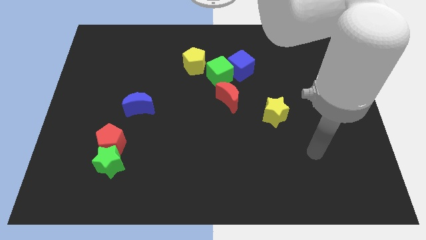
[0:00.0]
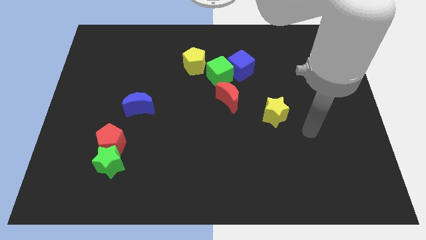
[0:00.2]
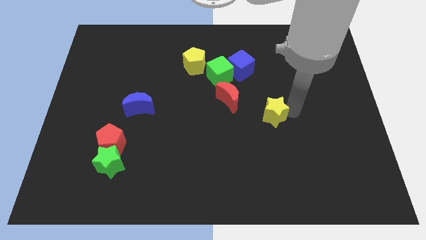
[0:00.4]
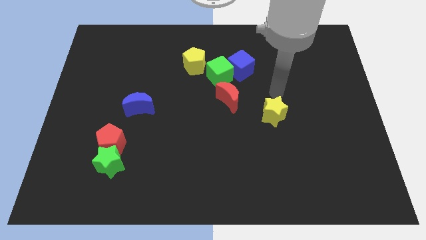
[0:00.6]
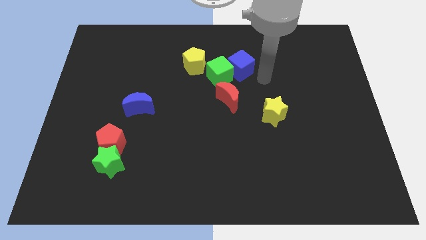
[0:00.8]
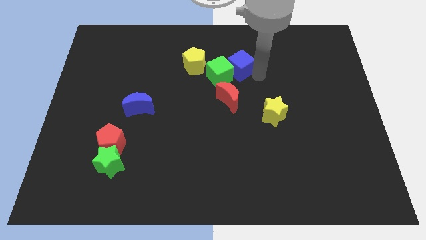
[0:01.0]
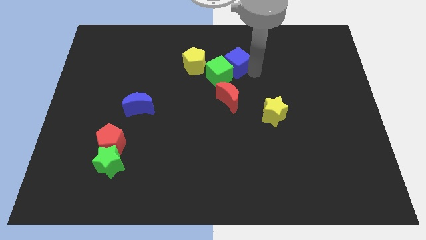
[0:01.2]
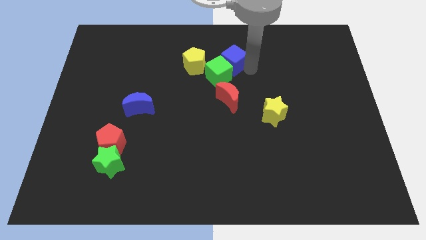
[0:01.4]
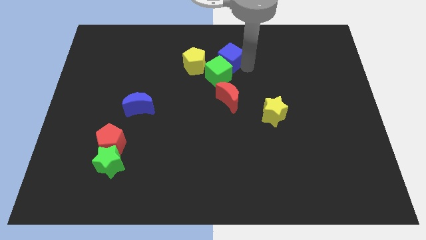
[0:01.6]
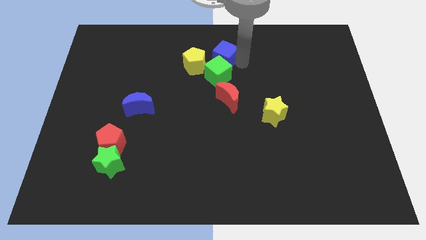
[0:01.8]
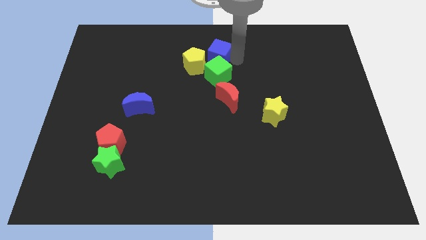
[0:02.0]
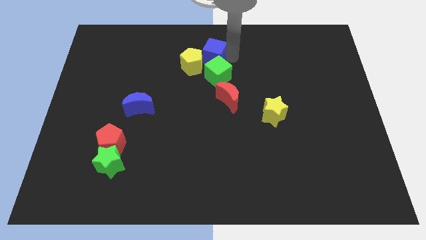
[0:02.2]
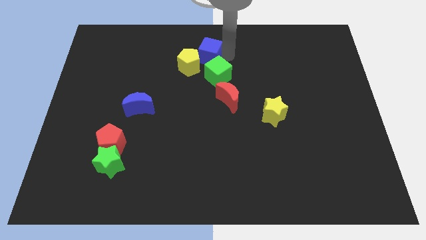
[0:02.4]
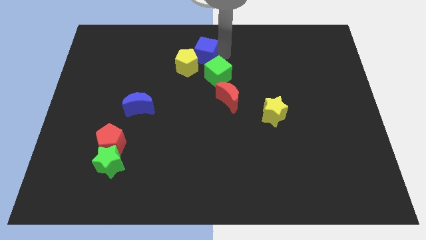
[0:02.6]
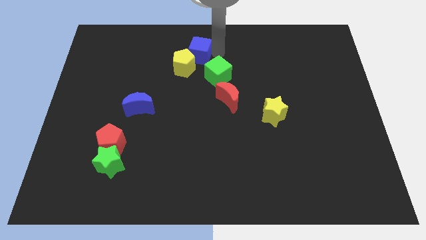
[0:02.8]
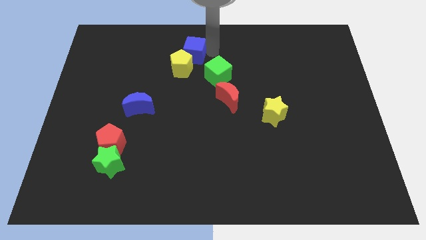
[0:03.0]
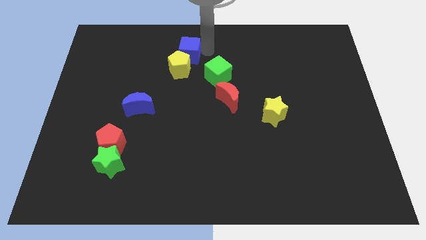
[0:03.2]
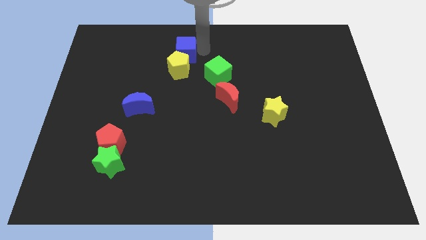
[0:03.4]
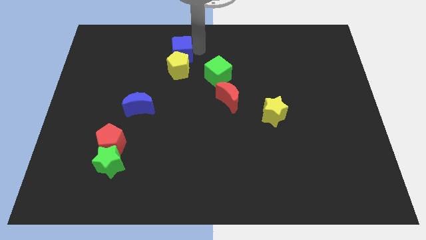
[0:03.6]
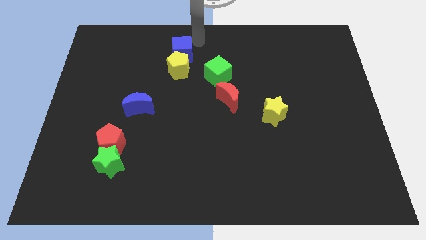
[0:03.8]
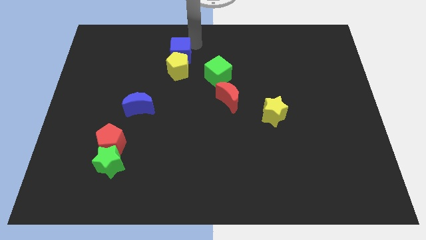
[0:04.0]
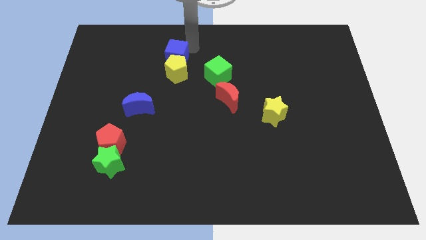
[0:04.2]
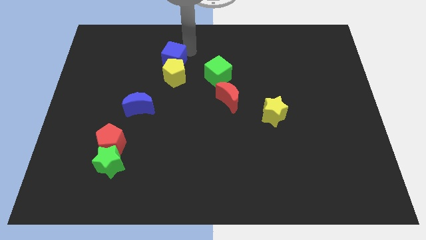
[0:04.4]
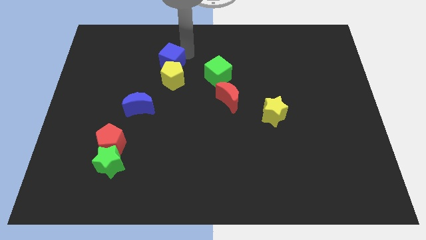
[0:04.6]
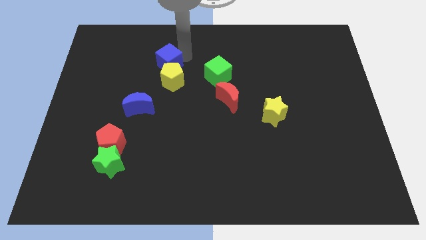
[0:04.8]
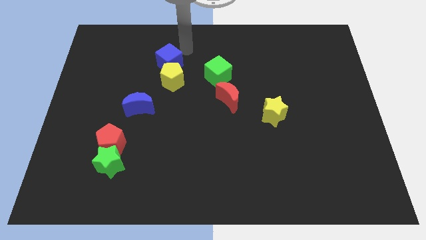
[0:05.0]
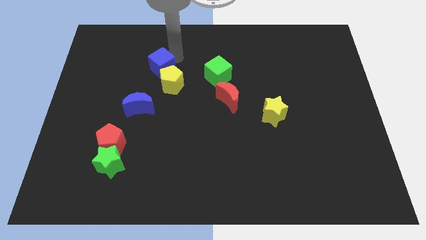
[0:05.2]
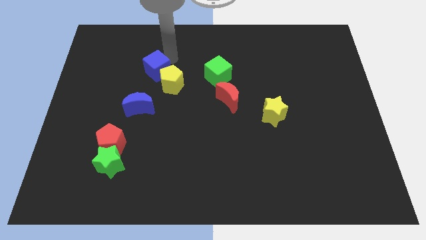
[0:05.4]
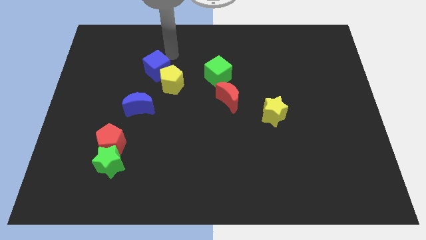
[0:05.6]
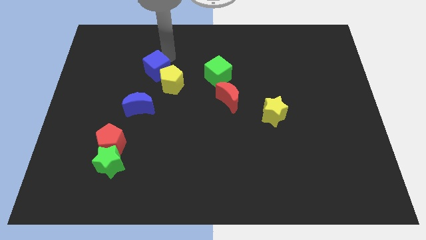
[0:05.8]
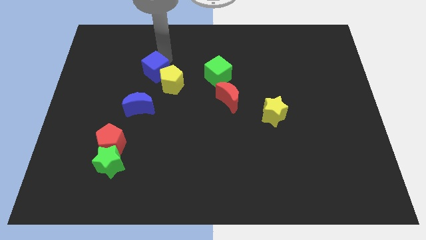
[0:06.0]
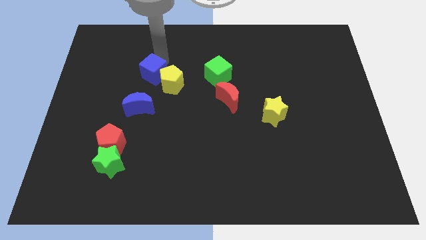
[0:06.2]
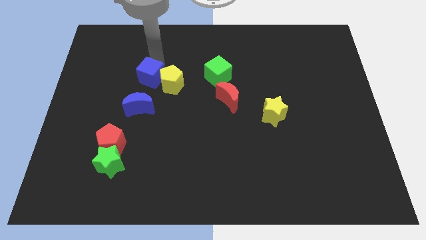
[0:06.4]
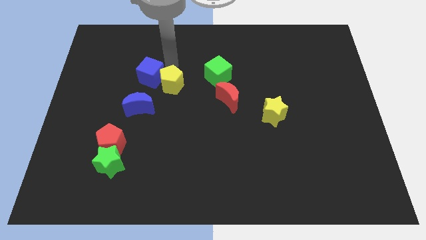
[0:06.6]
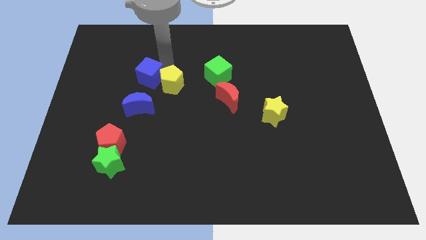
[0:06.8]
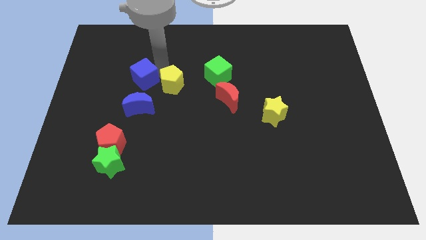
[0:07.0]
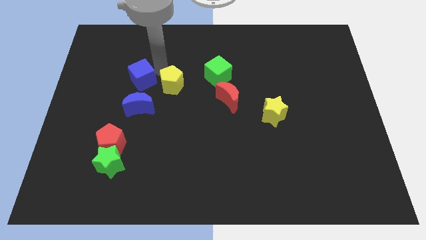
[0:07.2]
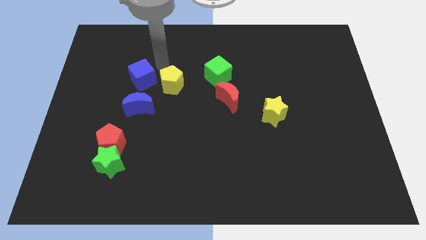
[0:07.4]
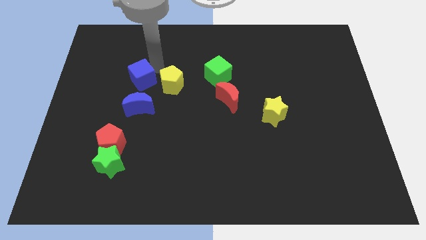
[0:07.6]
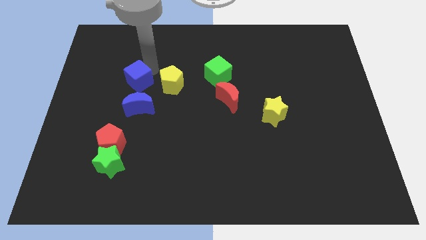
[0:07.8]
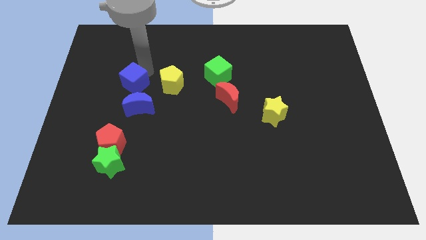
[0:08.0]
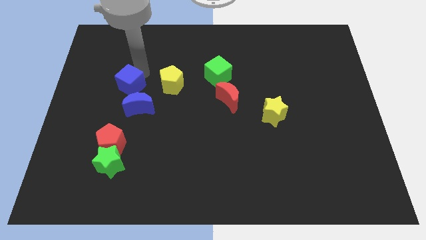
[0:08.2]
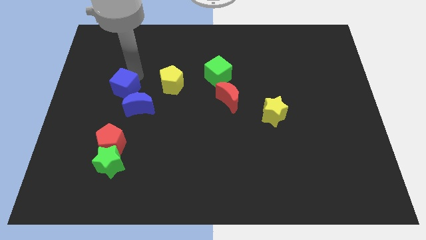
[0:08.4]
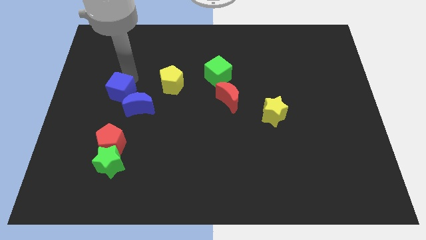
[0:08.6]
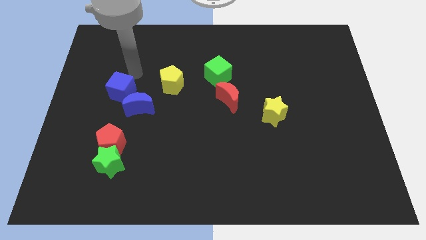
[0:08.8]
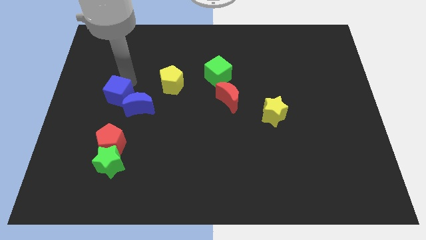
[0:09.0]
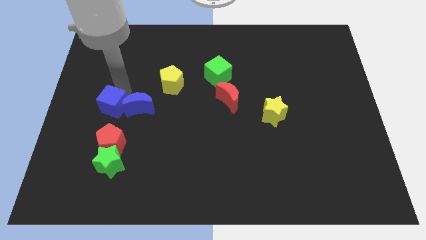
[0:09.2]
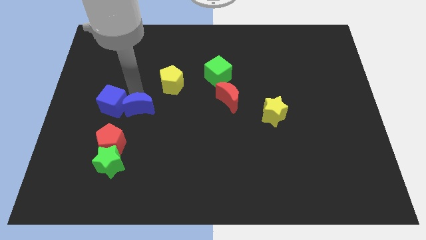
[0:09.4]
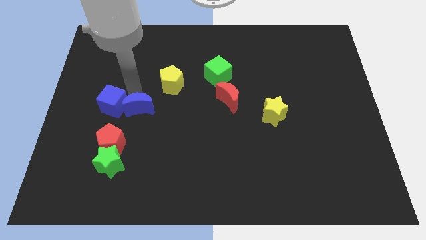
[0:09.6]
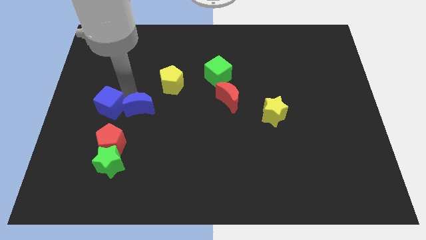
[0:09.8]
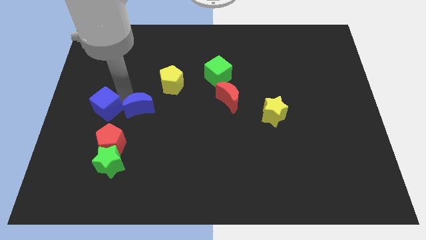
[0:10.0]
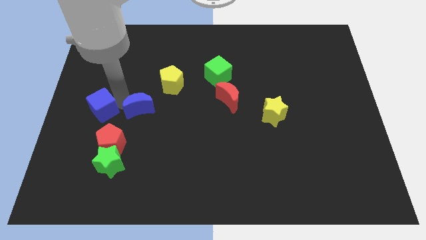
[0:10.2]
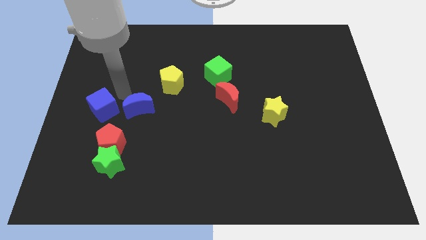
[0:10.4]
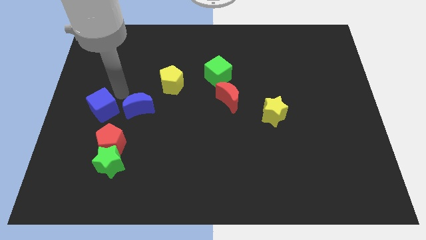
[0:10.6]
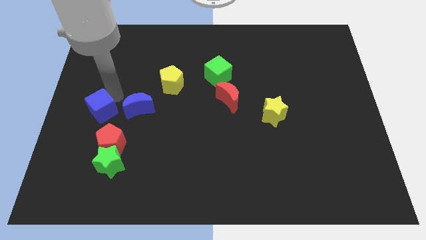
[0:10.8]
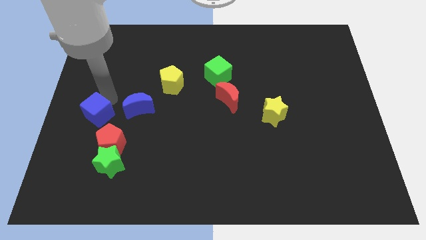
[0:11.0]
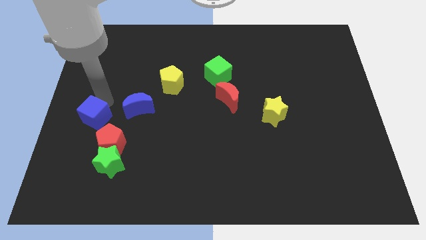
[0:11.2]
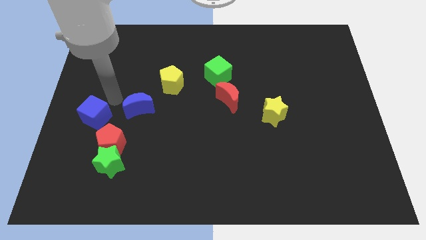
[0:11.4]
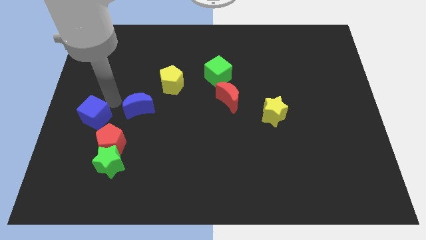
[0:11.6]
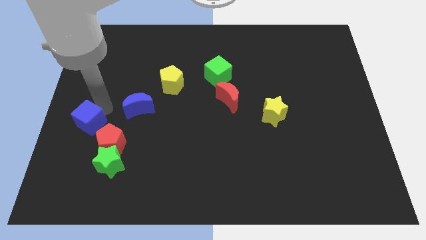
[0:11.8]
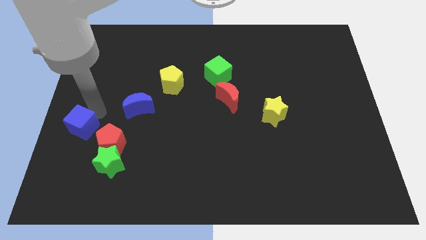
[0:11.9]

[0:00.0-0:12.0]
push the blue cube diagonally up and to the left of the green star
